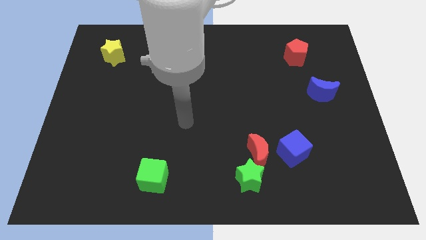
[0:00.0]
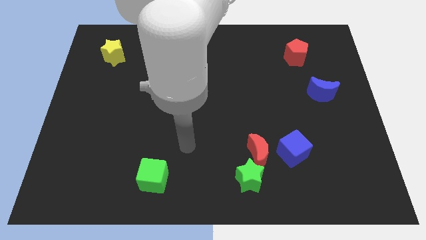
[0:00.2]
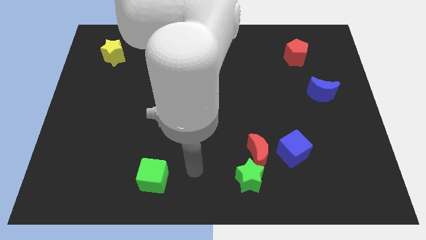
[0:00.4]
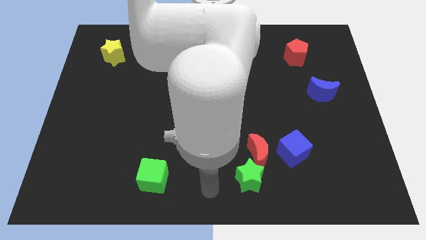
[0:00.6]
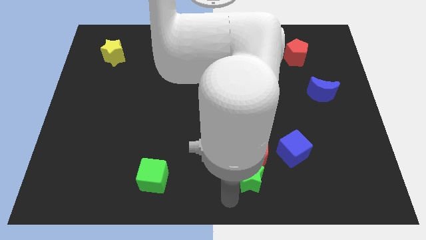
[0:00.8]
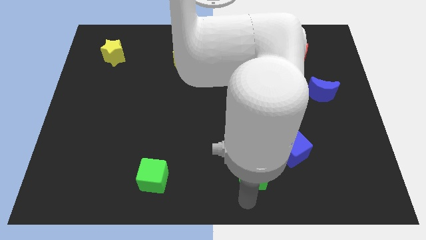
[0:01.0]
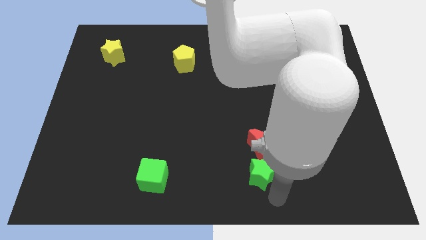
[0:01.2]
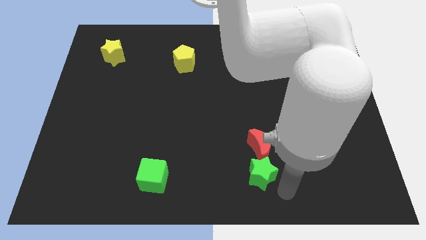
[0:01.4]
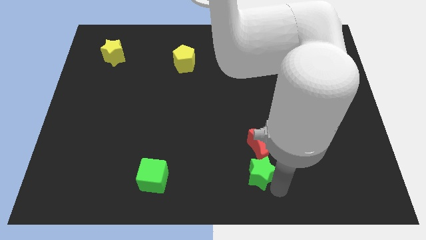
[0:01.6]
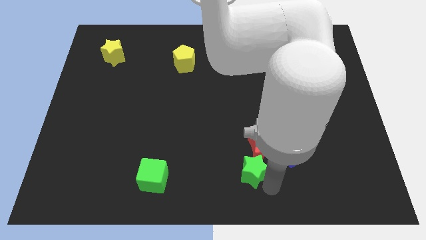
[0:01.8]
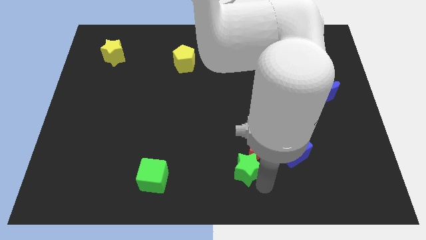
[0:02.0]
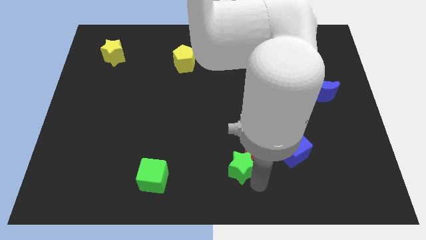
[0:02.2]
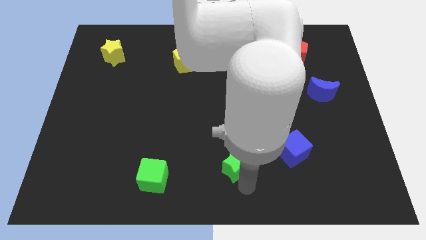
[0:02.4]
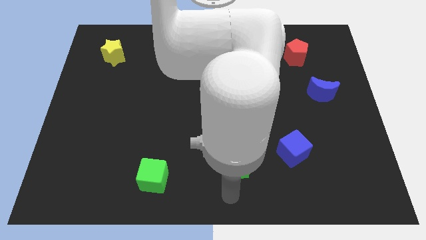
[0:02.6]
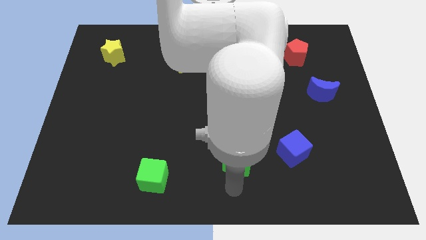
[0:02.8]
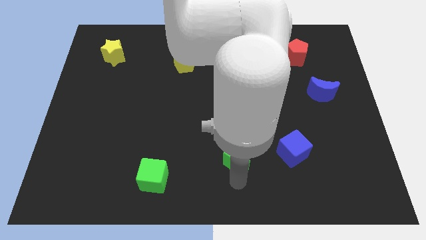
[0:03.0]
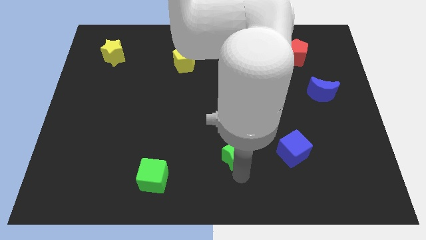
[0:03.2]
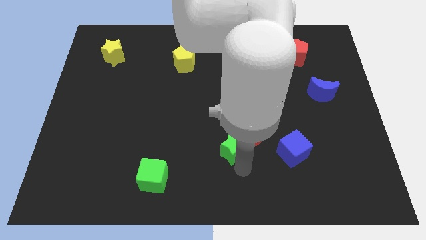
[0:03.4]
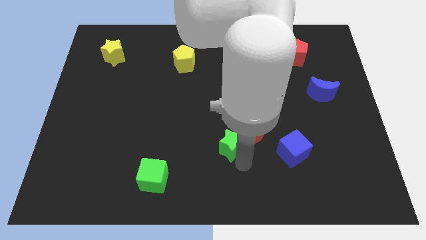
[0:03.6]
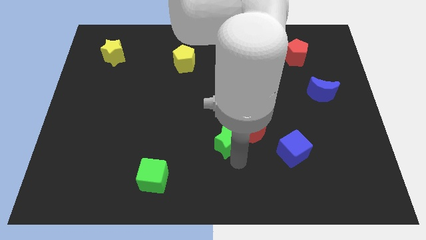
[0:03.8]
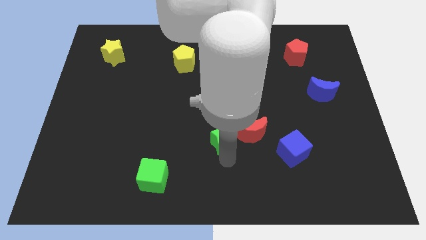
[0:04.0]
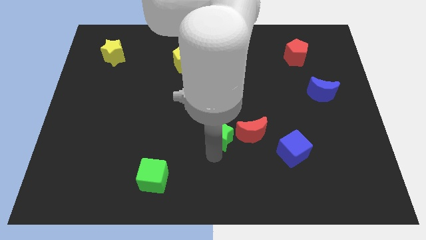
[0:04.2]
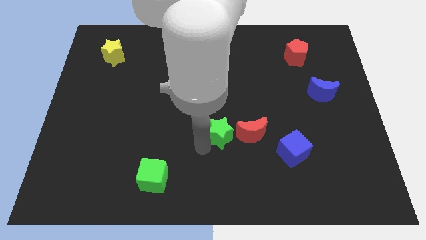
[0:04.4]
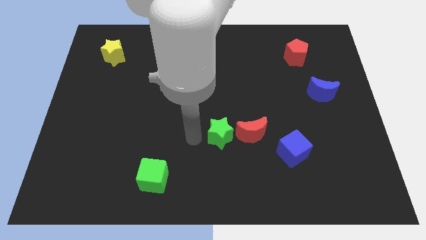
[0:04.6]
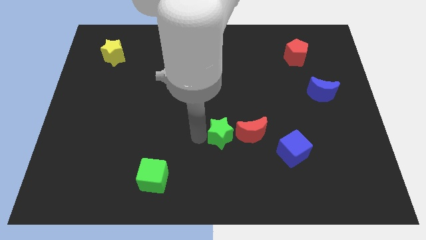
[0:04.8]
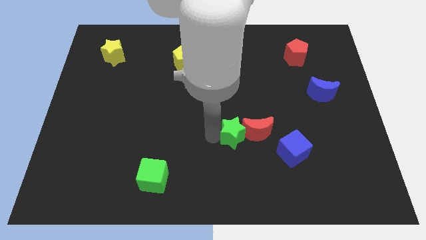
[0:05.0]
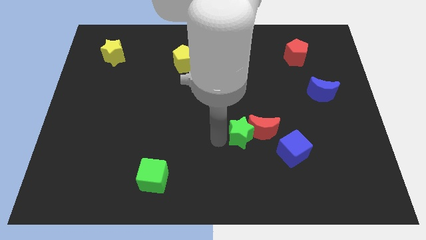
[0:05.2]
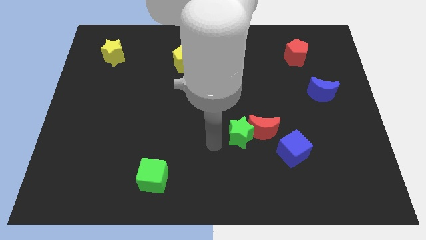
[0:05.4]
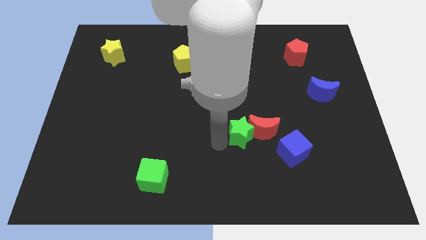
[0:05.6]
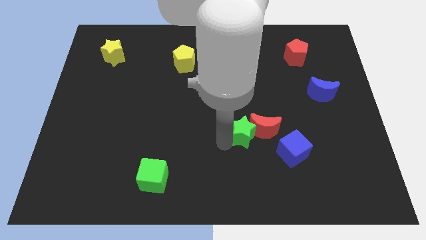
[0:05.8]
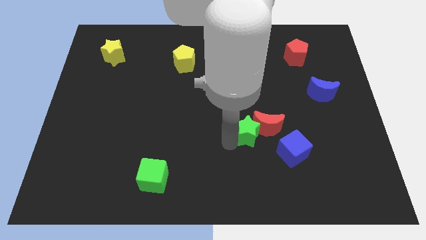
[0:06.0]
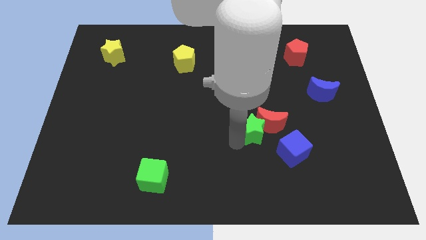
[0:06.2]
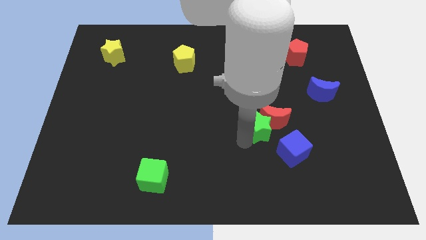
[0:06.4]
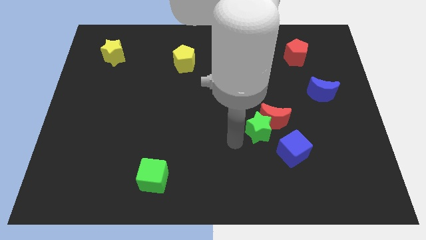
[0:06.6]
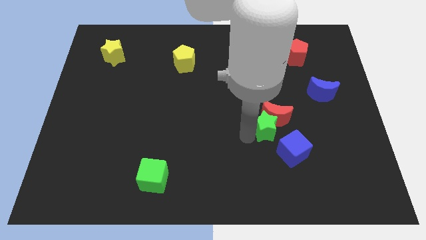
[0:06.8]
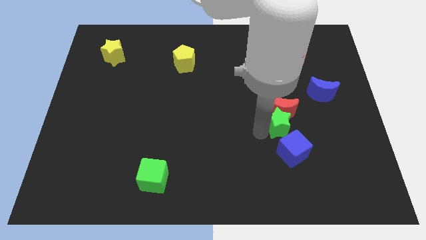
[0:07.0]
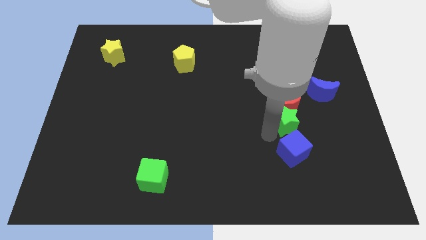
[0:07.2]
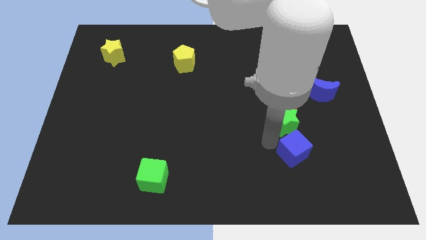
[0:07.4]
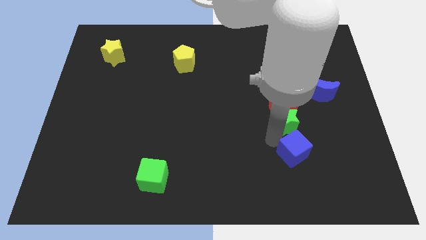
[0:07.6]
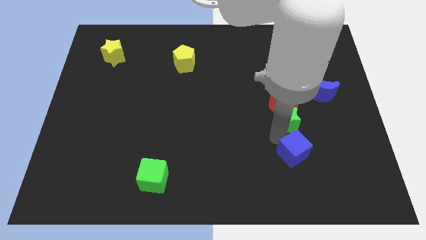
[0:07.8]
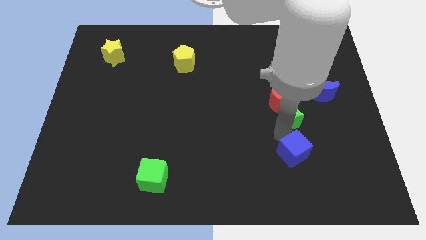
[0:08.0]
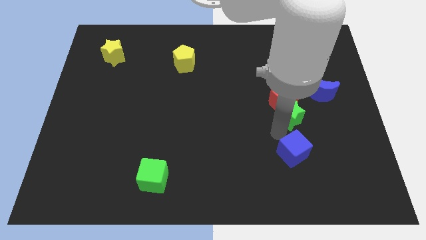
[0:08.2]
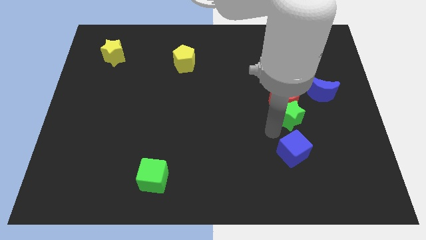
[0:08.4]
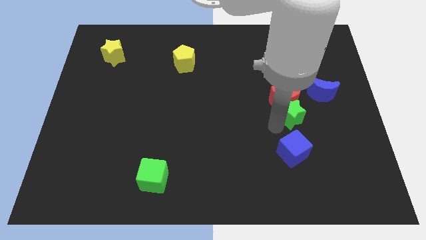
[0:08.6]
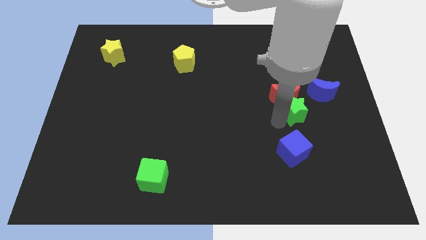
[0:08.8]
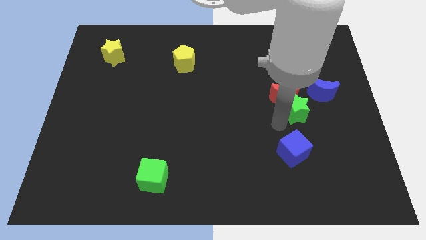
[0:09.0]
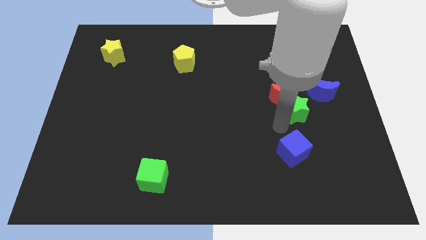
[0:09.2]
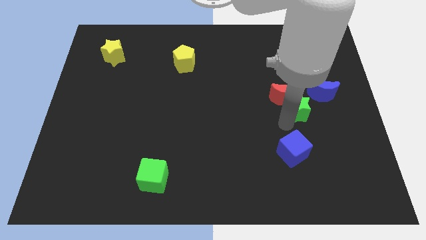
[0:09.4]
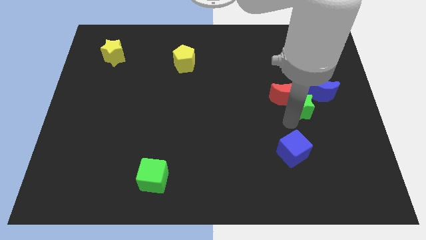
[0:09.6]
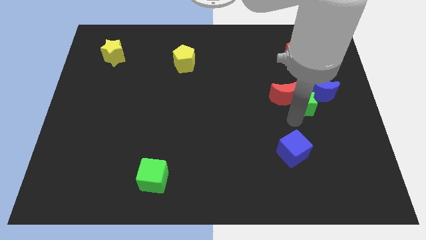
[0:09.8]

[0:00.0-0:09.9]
slide the green star to the blue moon

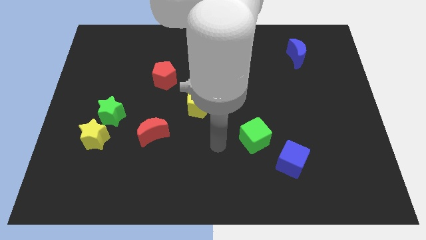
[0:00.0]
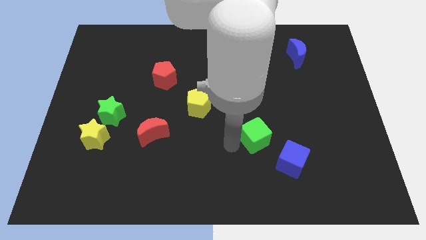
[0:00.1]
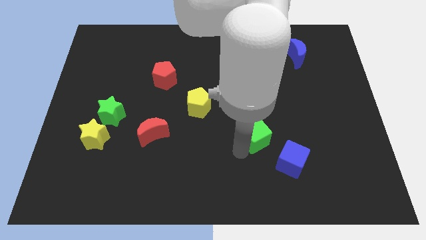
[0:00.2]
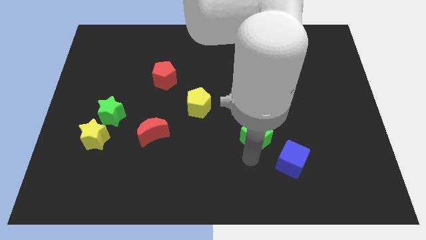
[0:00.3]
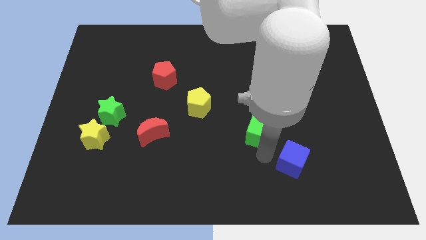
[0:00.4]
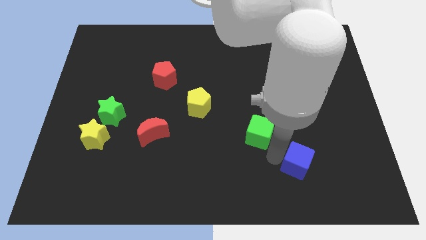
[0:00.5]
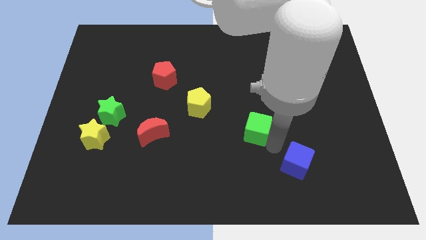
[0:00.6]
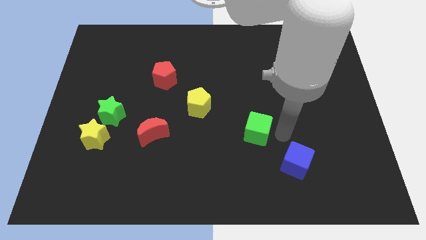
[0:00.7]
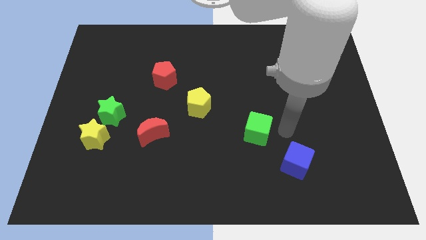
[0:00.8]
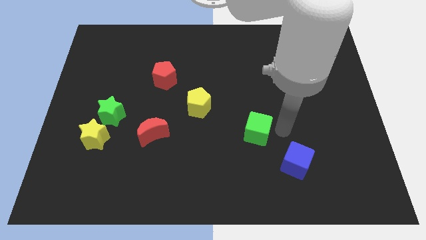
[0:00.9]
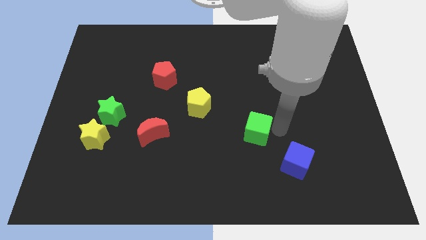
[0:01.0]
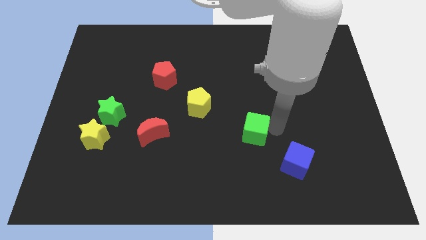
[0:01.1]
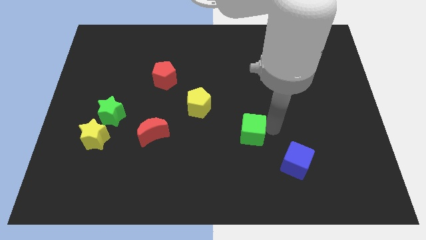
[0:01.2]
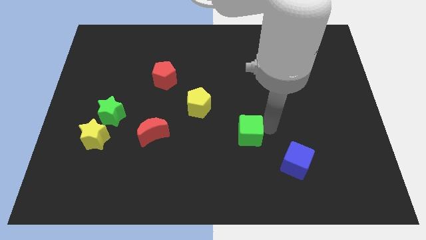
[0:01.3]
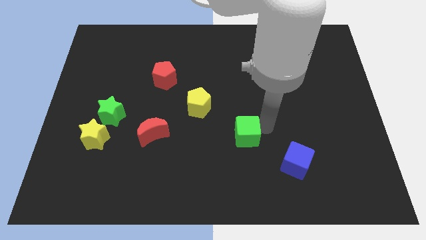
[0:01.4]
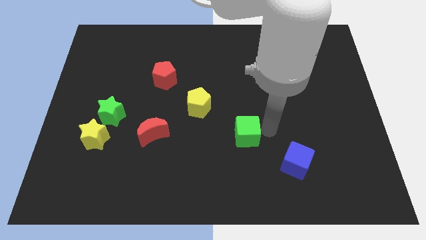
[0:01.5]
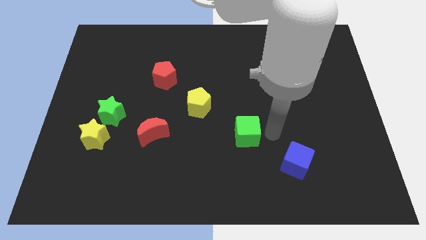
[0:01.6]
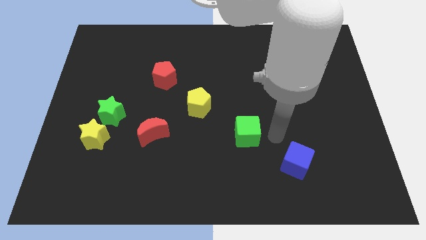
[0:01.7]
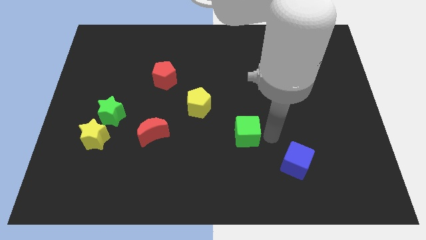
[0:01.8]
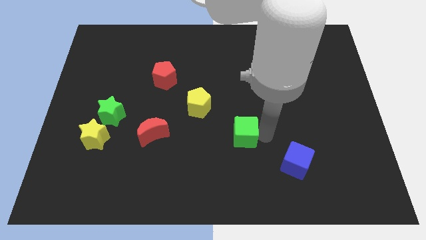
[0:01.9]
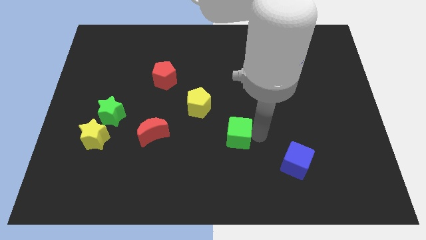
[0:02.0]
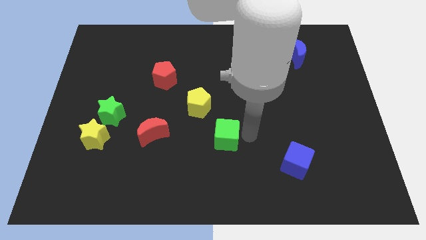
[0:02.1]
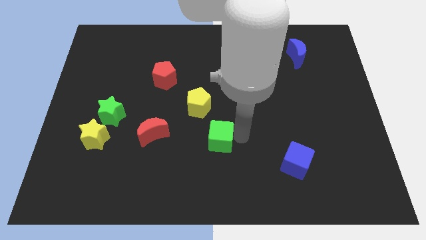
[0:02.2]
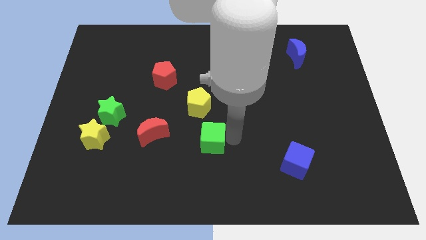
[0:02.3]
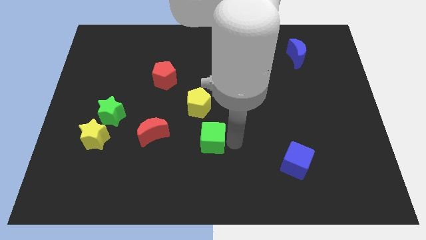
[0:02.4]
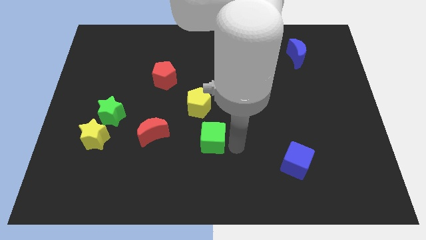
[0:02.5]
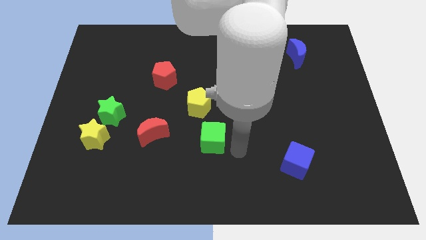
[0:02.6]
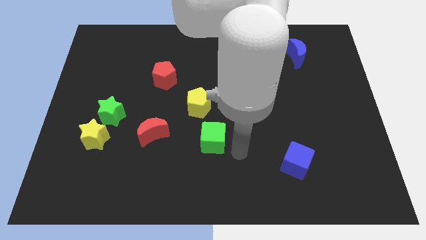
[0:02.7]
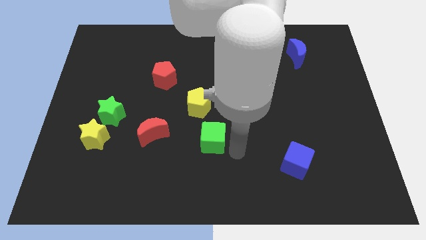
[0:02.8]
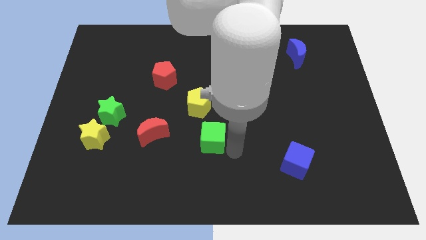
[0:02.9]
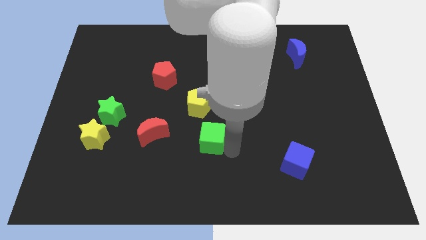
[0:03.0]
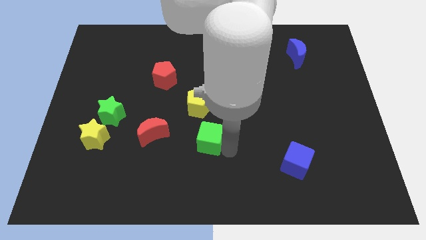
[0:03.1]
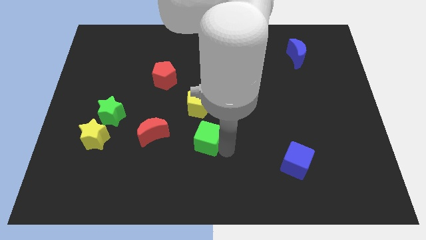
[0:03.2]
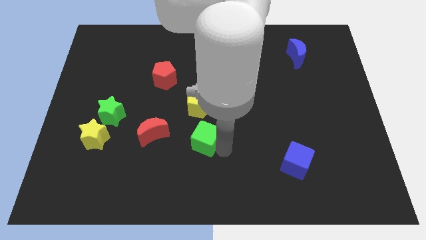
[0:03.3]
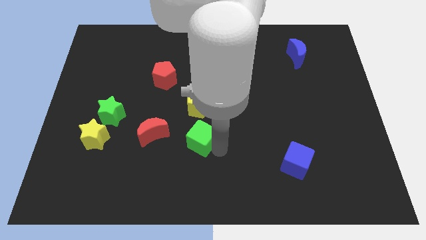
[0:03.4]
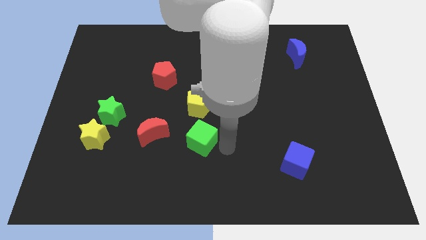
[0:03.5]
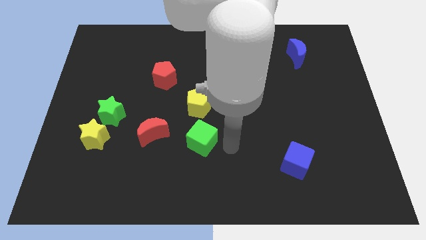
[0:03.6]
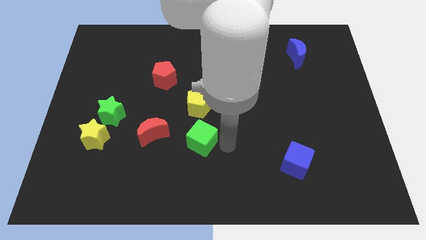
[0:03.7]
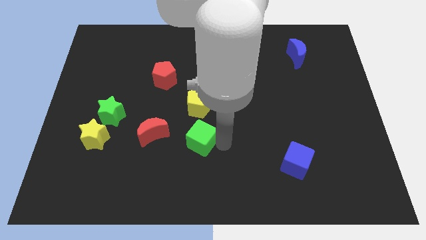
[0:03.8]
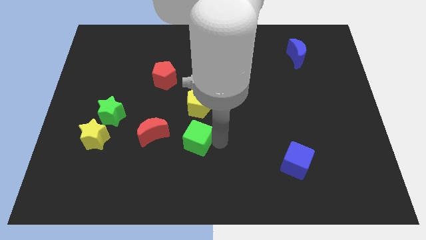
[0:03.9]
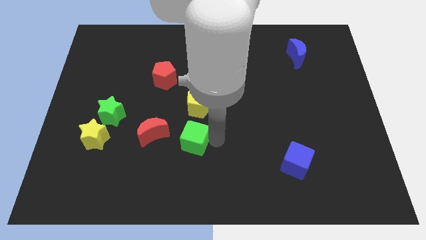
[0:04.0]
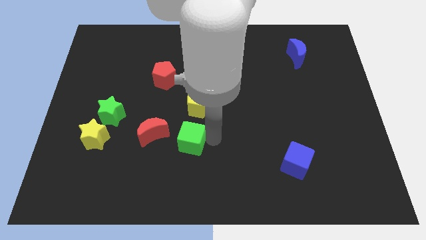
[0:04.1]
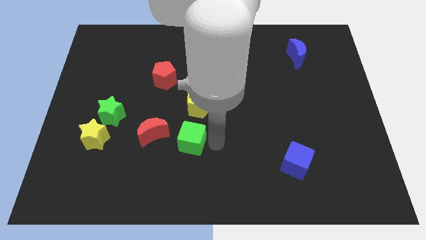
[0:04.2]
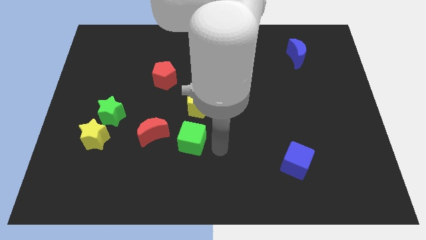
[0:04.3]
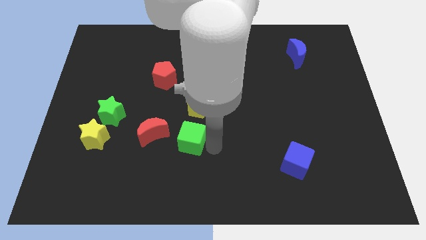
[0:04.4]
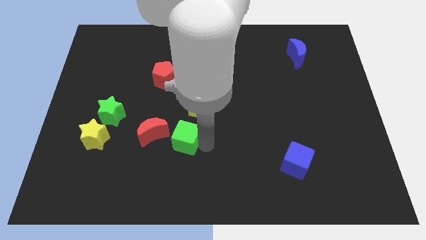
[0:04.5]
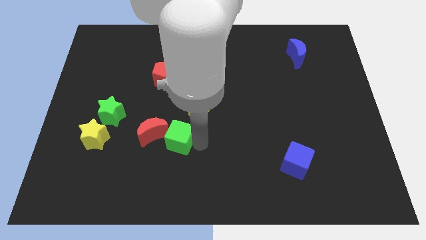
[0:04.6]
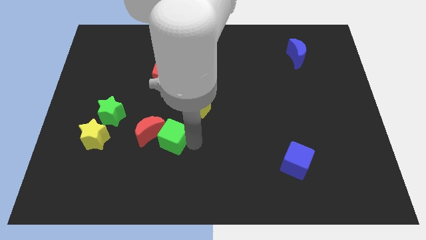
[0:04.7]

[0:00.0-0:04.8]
put the green cube towards the red moon
